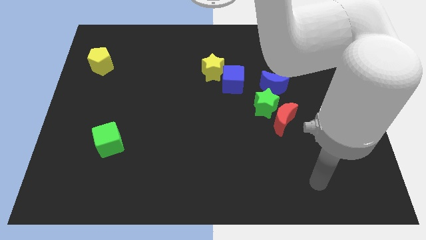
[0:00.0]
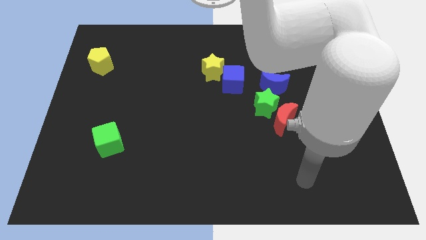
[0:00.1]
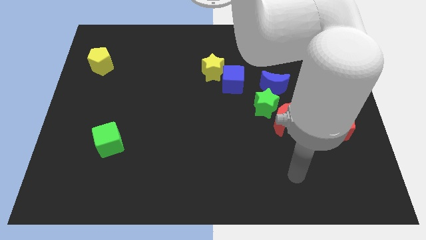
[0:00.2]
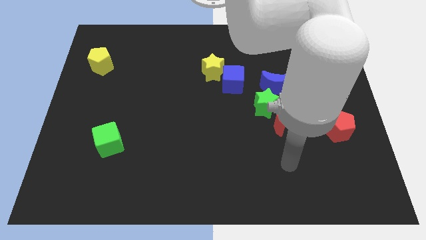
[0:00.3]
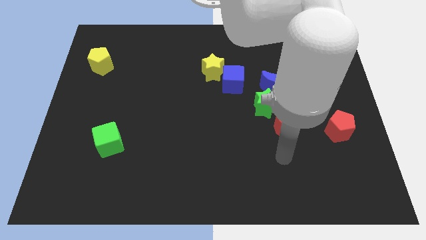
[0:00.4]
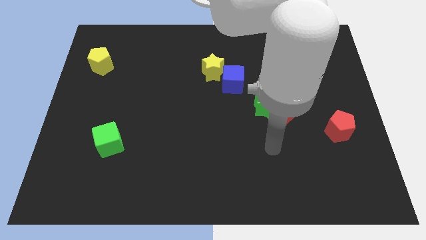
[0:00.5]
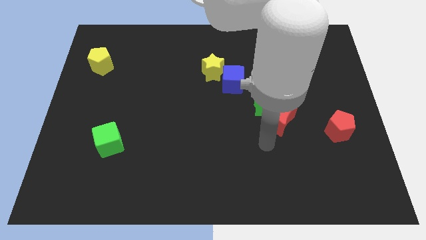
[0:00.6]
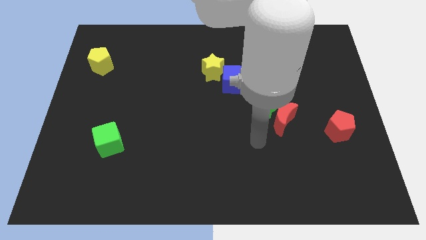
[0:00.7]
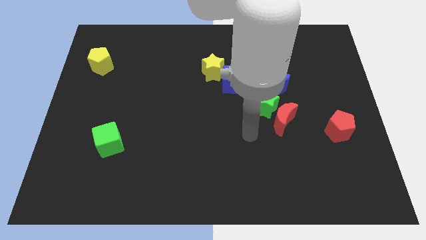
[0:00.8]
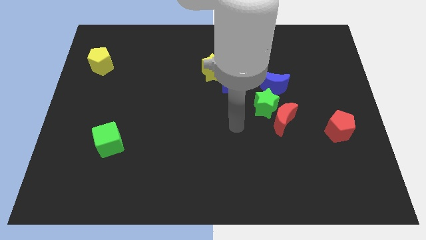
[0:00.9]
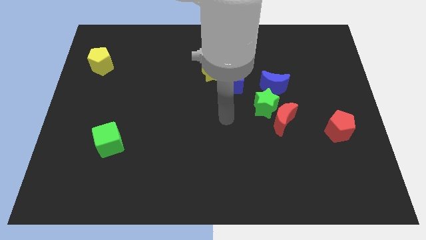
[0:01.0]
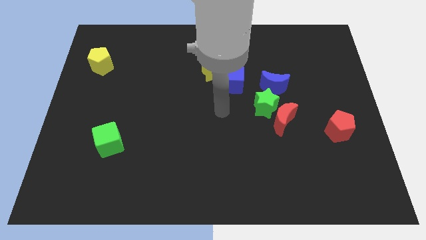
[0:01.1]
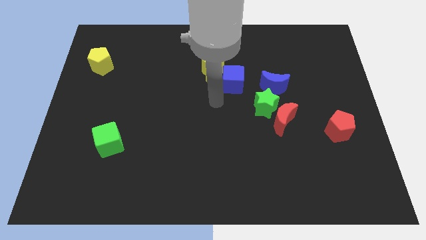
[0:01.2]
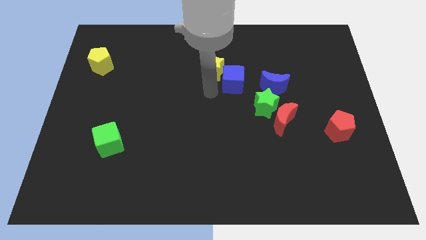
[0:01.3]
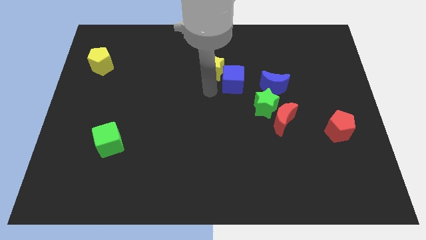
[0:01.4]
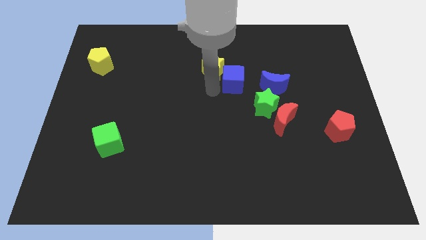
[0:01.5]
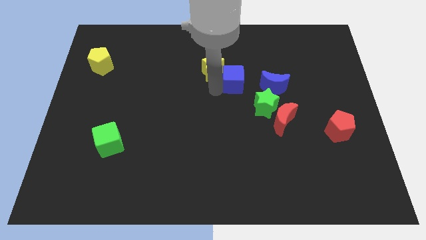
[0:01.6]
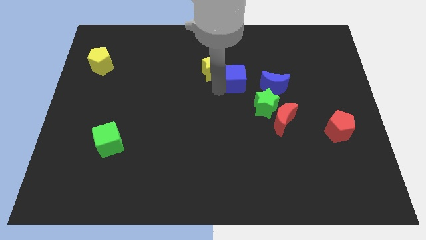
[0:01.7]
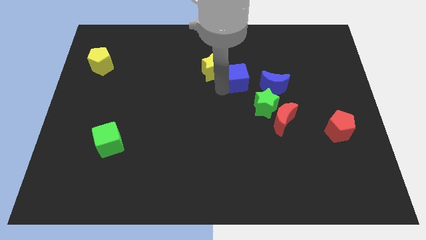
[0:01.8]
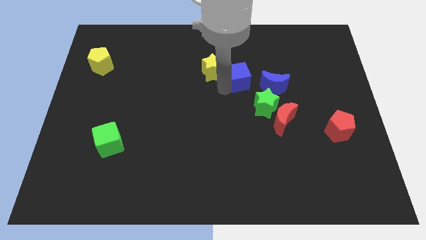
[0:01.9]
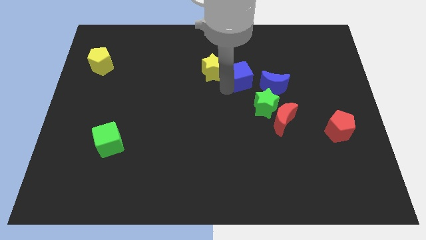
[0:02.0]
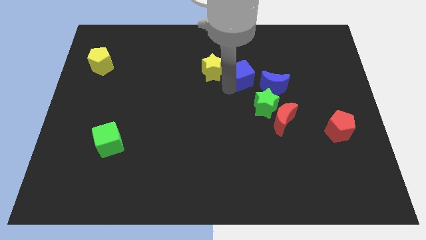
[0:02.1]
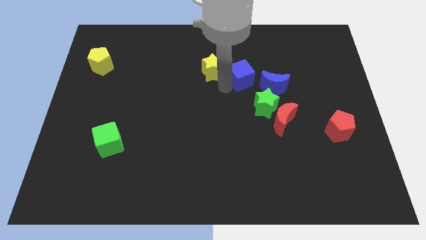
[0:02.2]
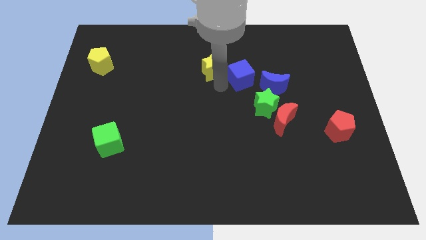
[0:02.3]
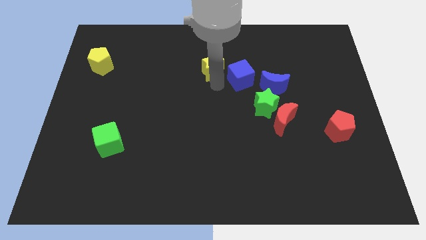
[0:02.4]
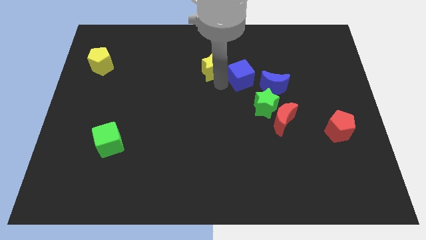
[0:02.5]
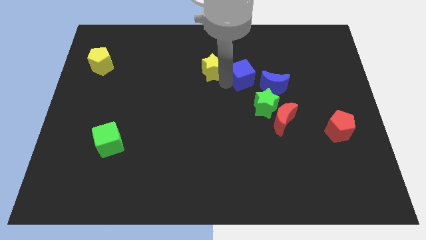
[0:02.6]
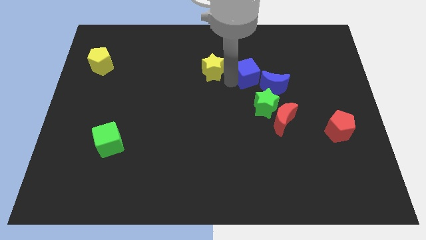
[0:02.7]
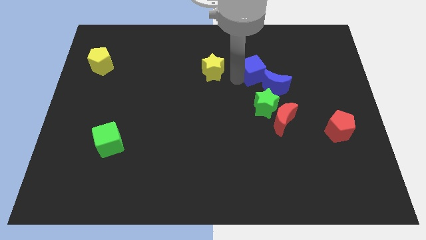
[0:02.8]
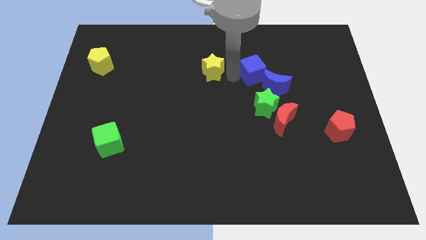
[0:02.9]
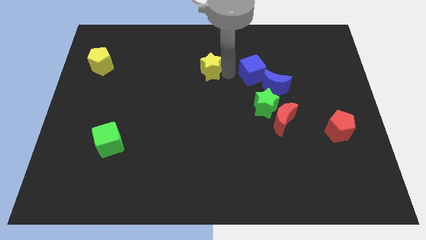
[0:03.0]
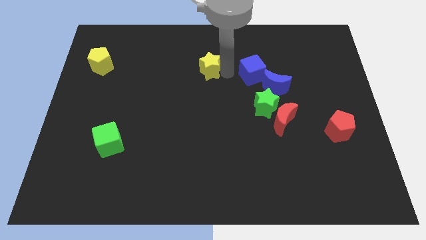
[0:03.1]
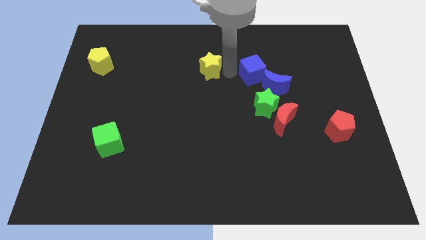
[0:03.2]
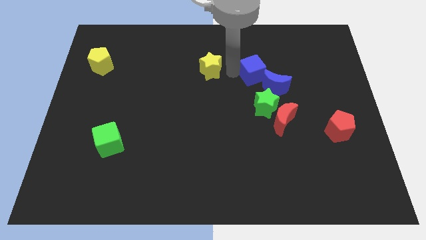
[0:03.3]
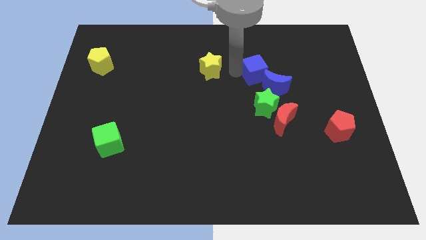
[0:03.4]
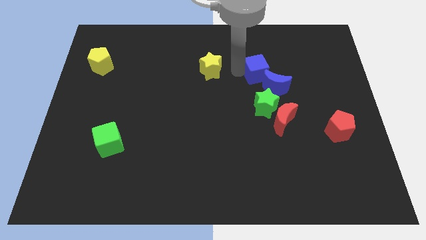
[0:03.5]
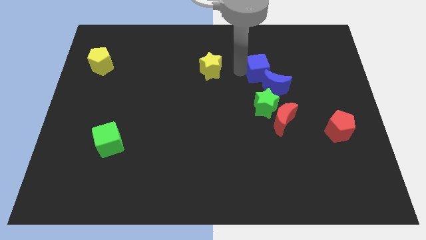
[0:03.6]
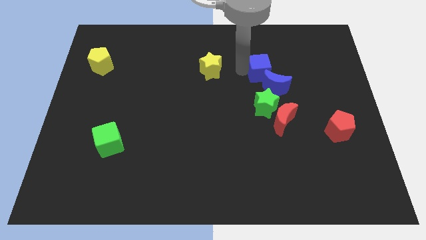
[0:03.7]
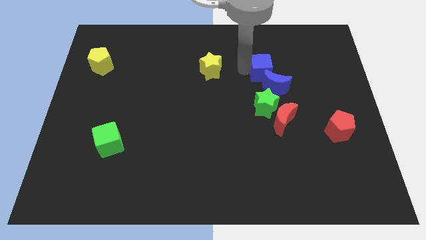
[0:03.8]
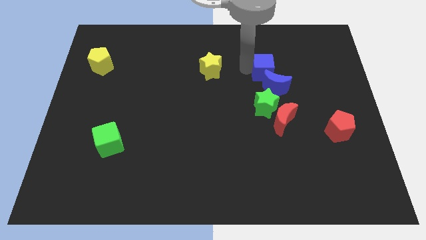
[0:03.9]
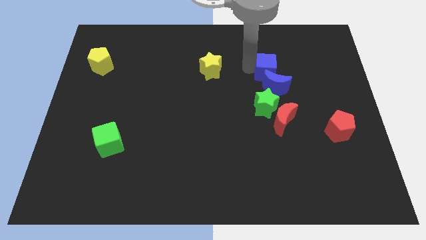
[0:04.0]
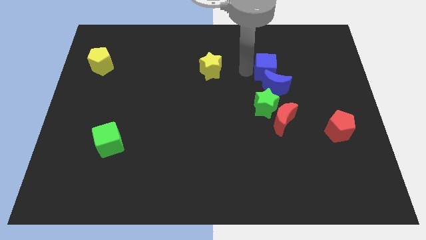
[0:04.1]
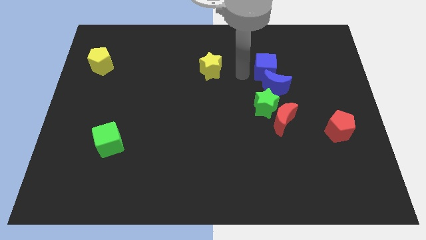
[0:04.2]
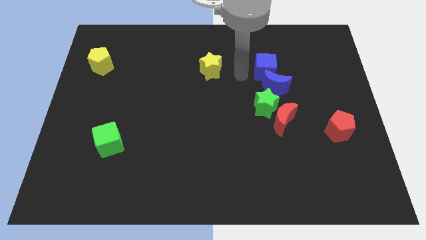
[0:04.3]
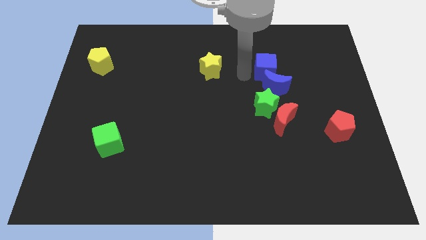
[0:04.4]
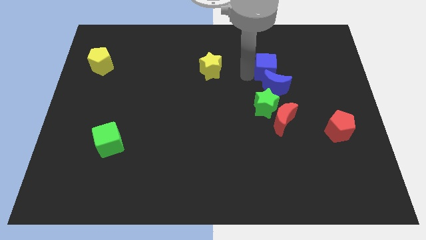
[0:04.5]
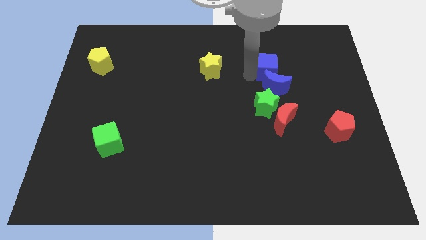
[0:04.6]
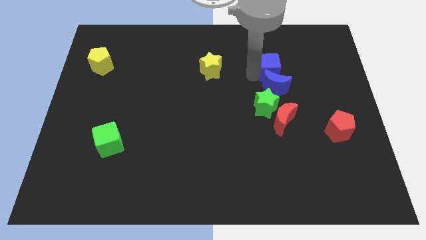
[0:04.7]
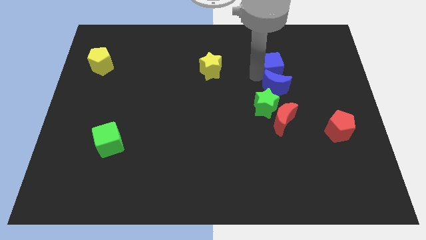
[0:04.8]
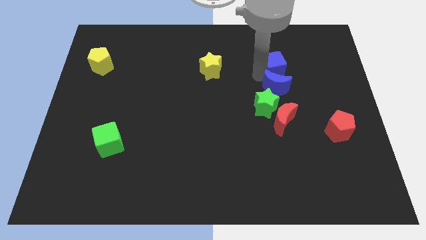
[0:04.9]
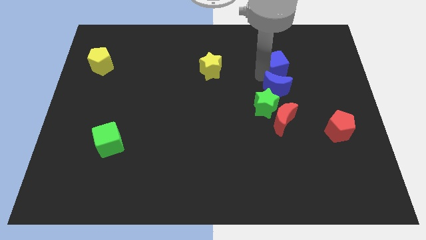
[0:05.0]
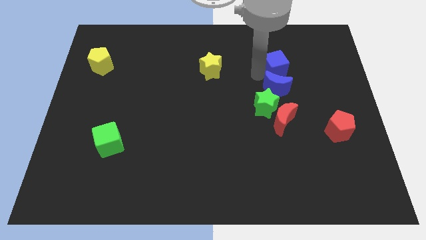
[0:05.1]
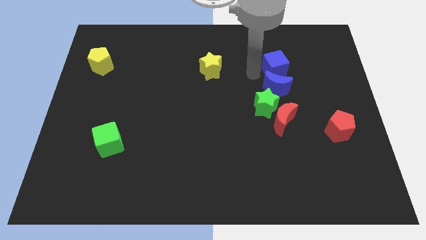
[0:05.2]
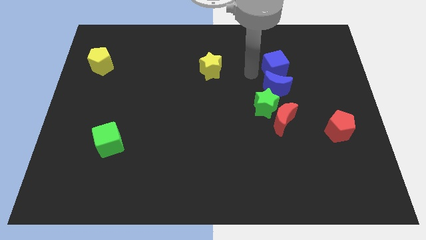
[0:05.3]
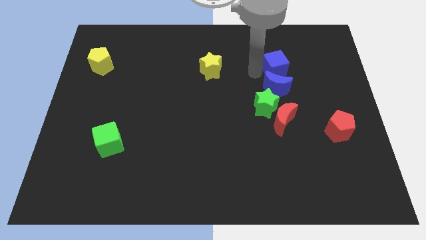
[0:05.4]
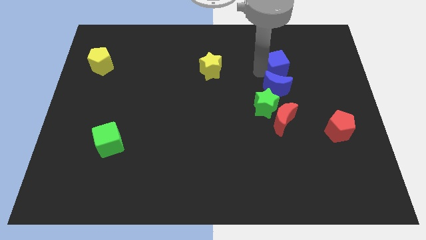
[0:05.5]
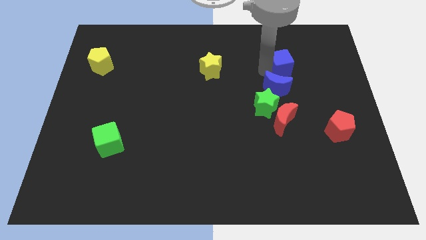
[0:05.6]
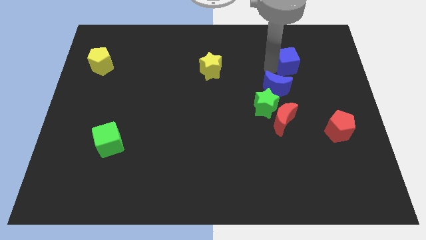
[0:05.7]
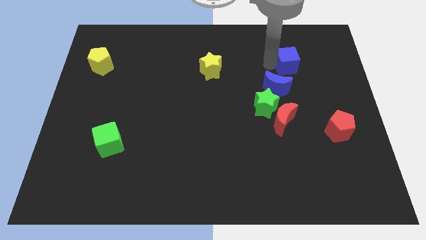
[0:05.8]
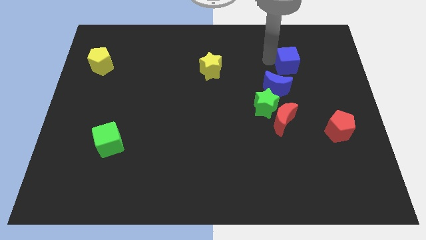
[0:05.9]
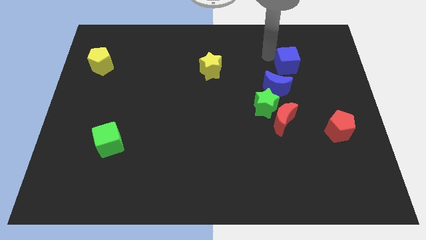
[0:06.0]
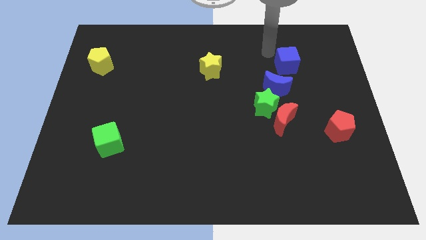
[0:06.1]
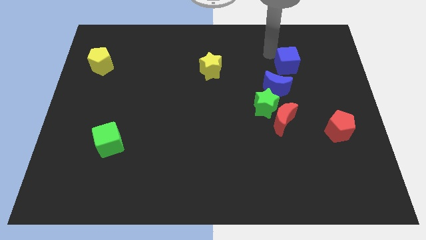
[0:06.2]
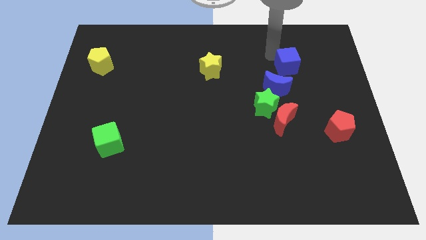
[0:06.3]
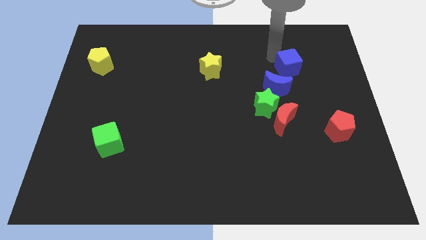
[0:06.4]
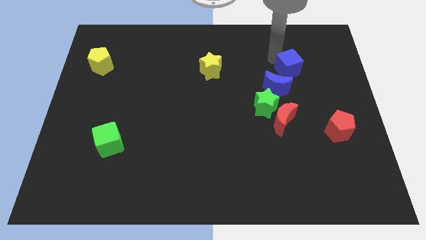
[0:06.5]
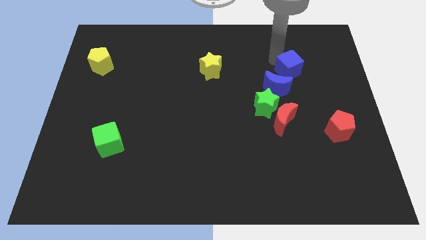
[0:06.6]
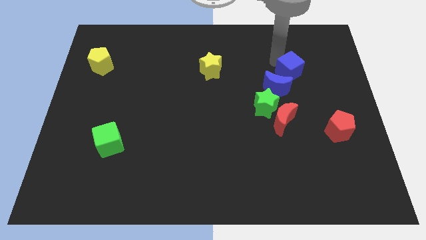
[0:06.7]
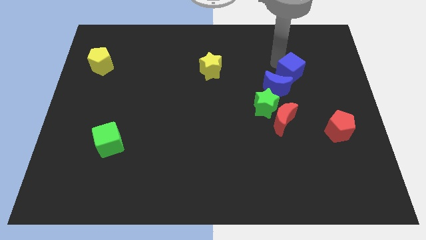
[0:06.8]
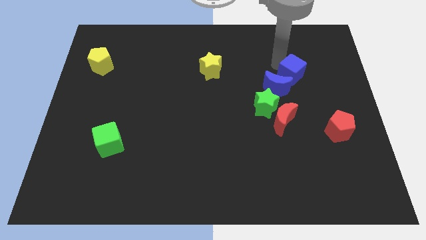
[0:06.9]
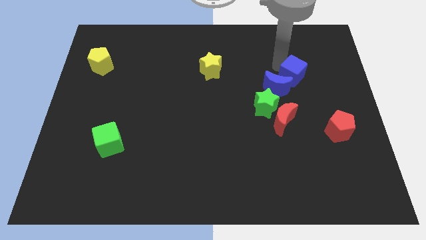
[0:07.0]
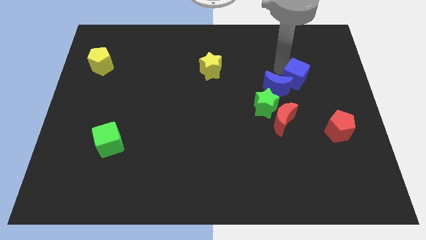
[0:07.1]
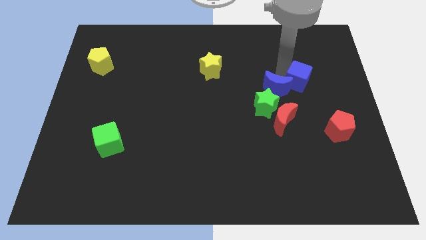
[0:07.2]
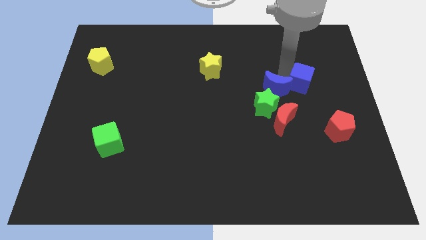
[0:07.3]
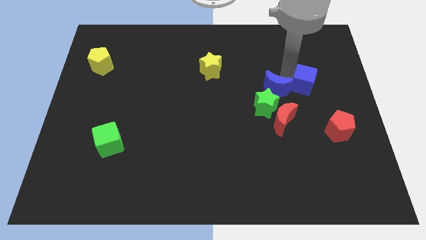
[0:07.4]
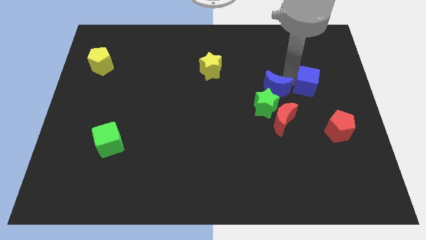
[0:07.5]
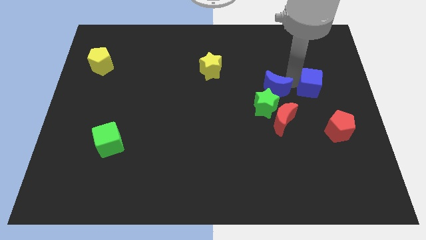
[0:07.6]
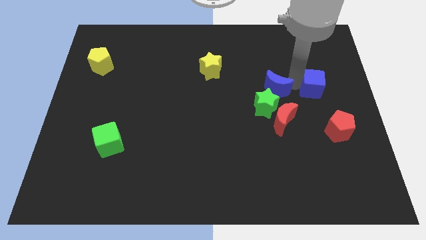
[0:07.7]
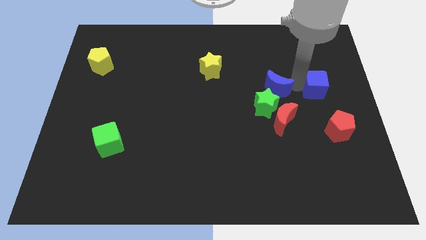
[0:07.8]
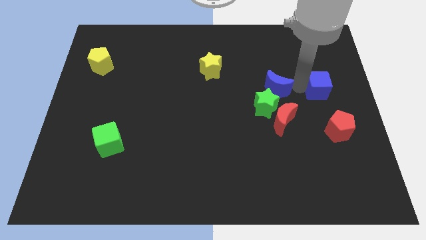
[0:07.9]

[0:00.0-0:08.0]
move the blue cube to the center right
